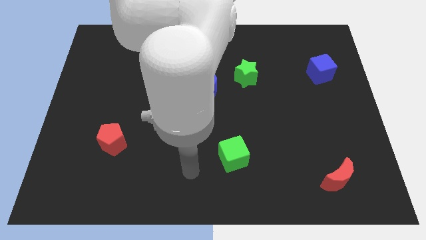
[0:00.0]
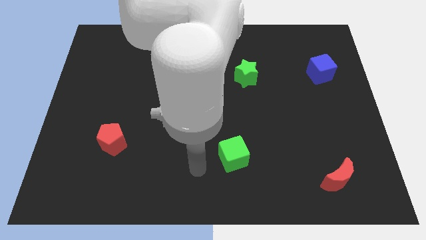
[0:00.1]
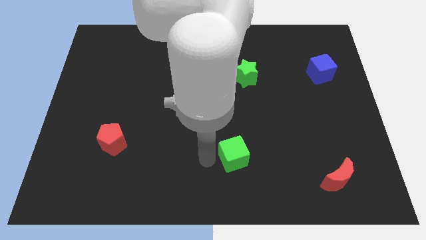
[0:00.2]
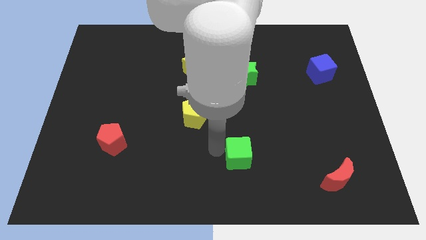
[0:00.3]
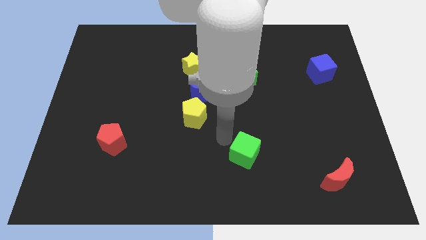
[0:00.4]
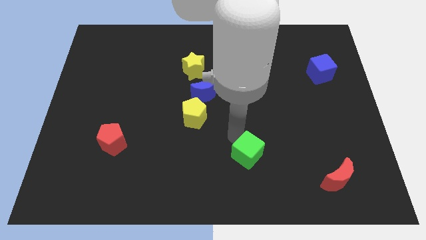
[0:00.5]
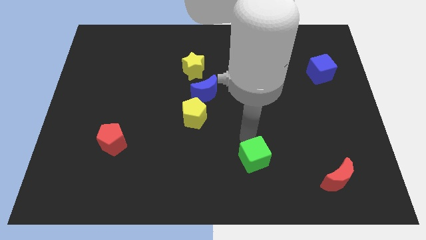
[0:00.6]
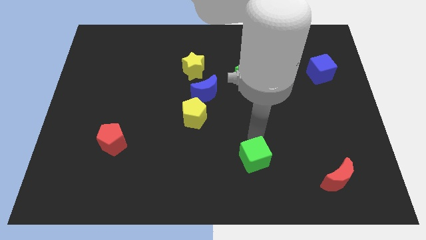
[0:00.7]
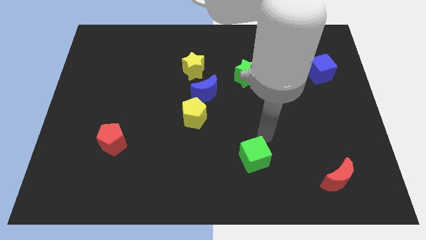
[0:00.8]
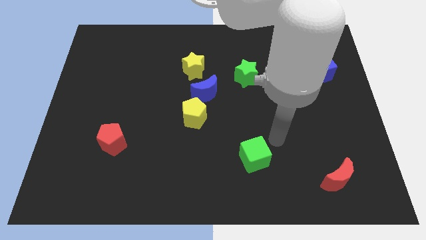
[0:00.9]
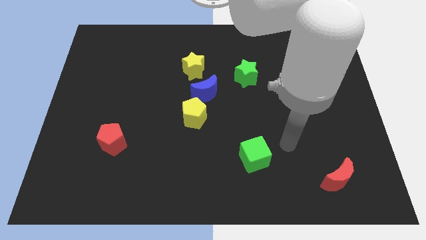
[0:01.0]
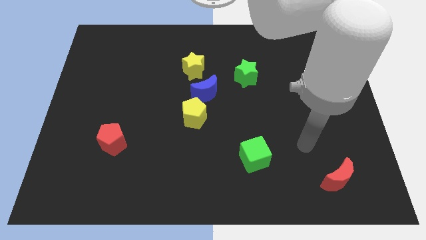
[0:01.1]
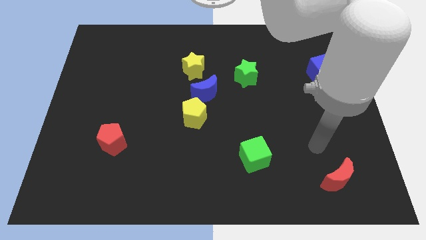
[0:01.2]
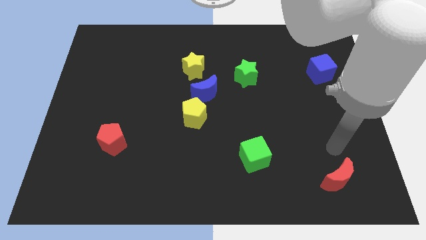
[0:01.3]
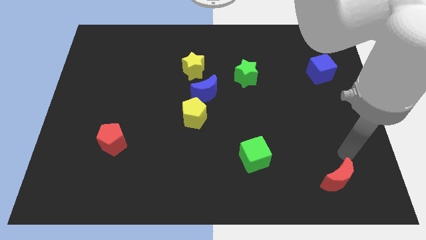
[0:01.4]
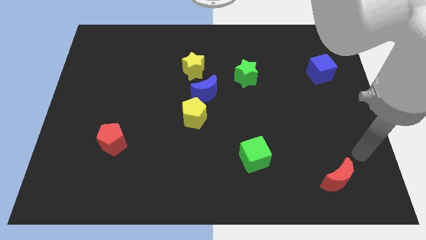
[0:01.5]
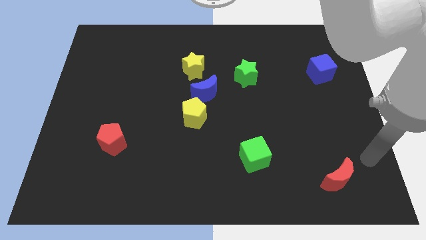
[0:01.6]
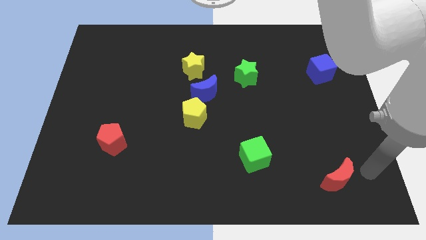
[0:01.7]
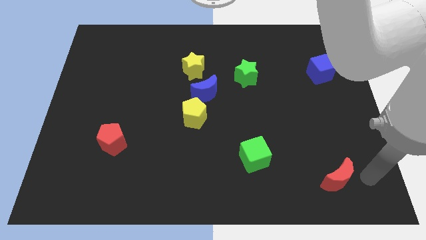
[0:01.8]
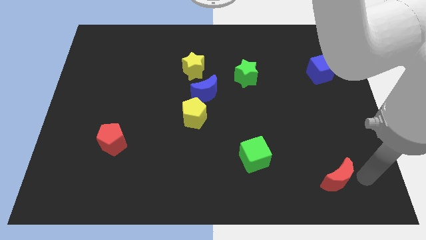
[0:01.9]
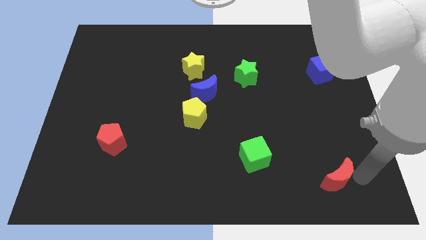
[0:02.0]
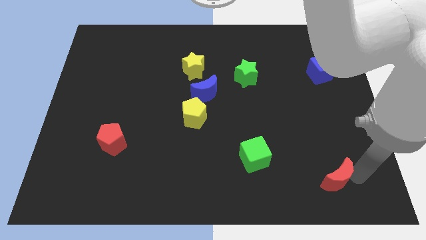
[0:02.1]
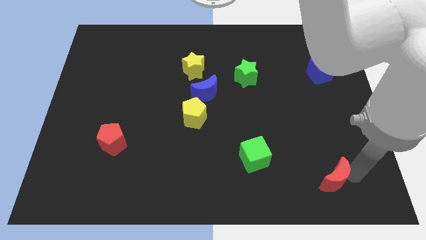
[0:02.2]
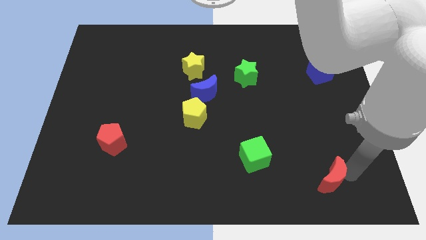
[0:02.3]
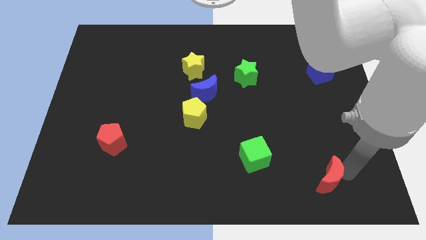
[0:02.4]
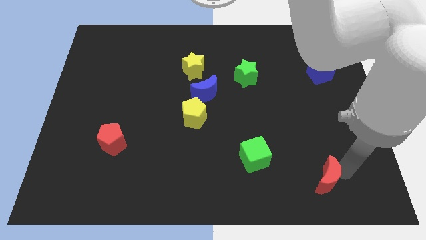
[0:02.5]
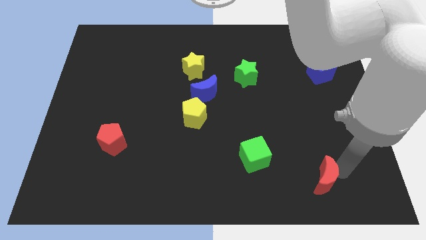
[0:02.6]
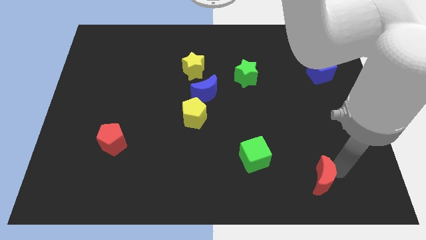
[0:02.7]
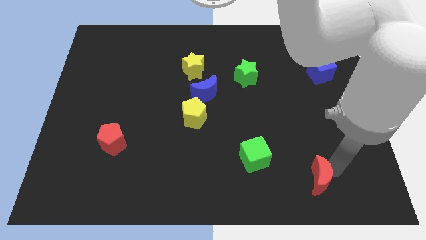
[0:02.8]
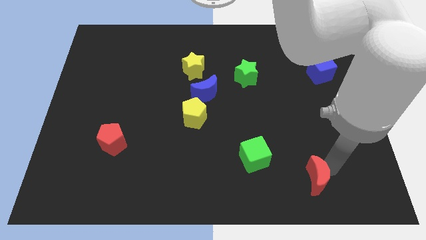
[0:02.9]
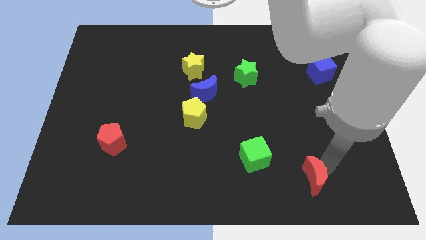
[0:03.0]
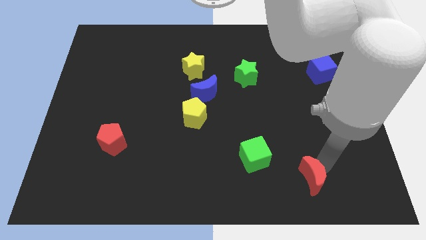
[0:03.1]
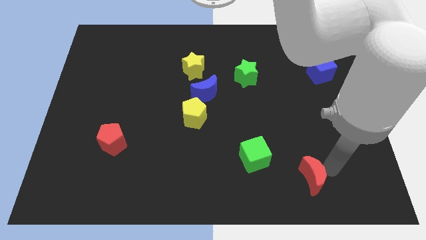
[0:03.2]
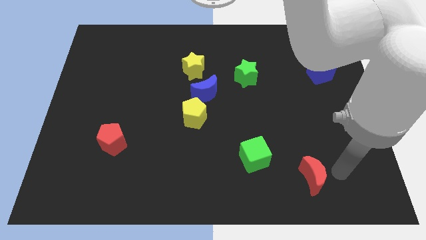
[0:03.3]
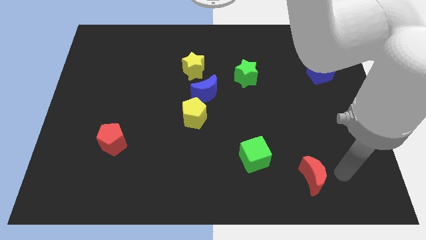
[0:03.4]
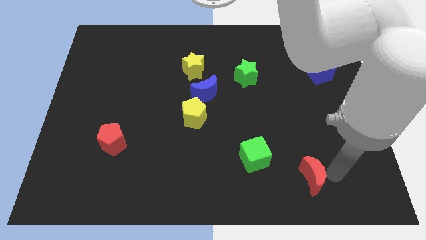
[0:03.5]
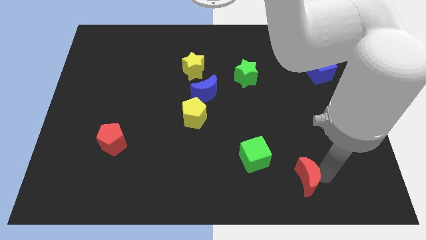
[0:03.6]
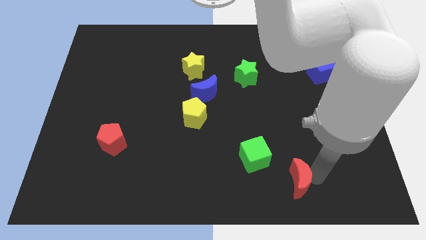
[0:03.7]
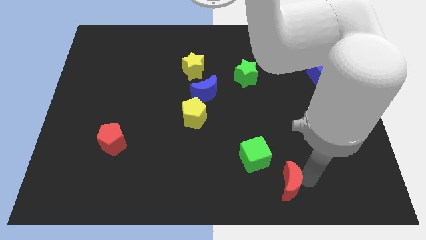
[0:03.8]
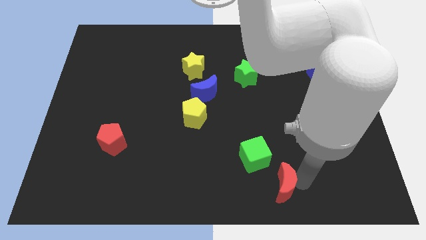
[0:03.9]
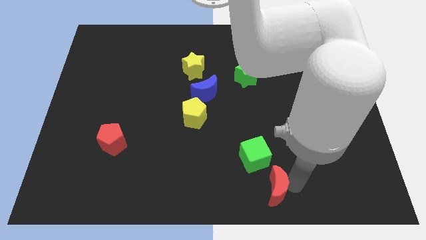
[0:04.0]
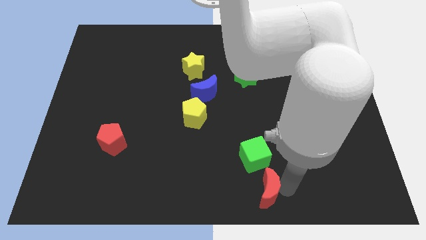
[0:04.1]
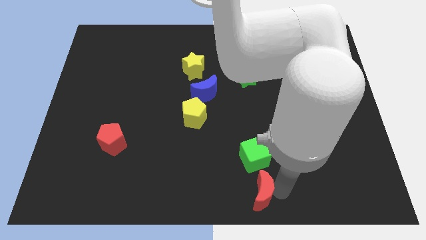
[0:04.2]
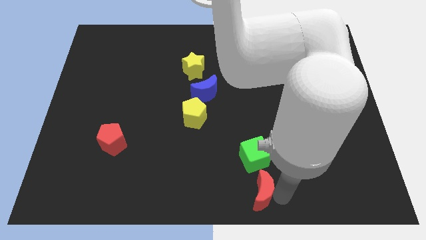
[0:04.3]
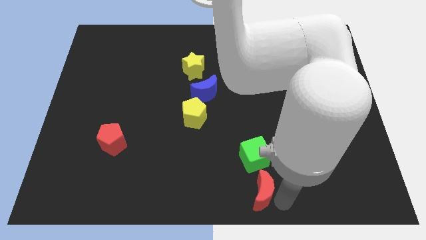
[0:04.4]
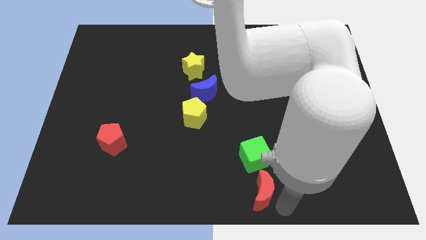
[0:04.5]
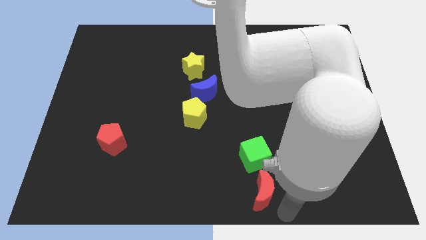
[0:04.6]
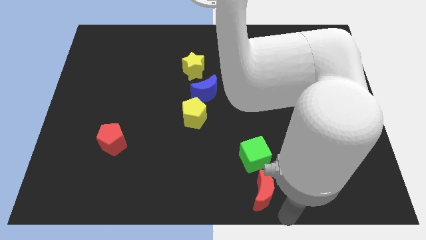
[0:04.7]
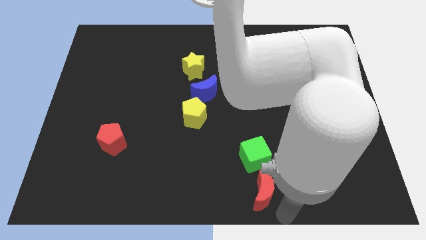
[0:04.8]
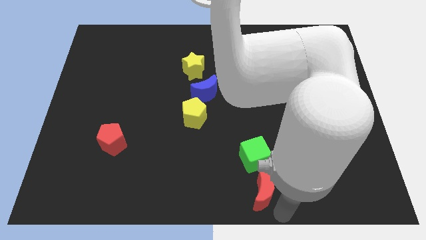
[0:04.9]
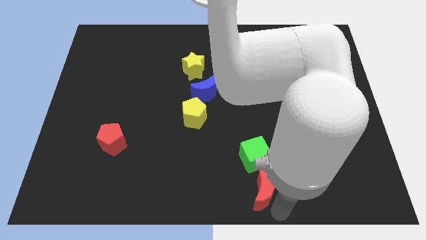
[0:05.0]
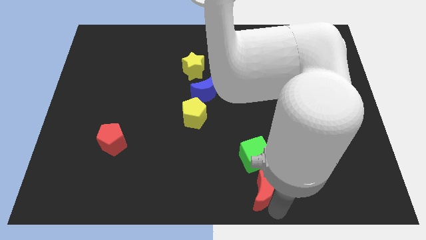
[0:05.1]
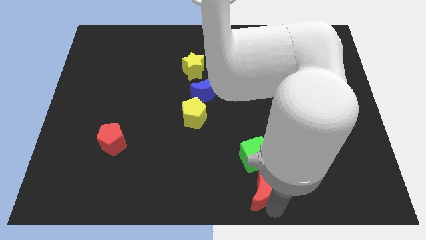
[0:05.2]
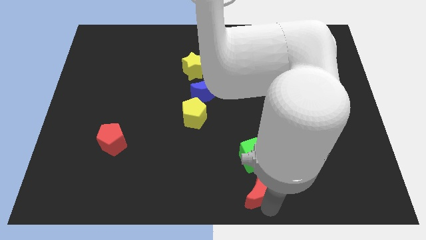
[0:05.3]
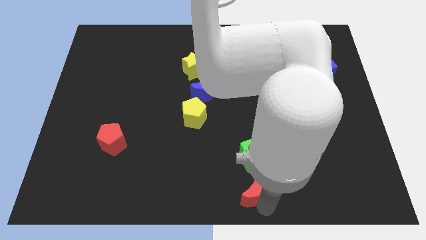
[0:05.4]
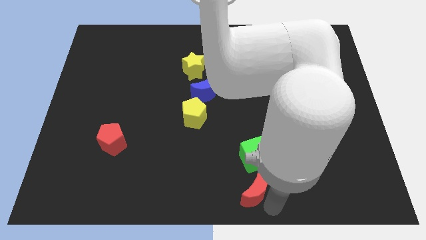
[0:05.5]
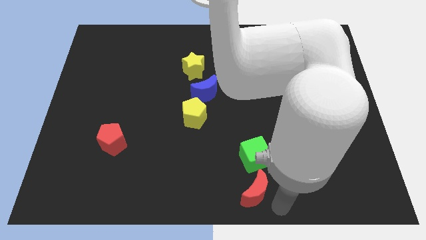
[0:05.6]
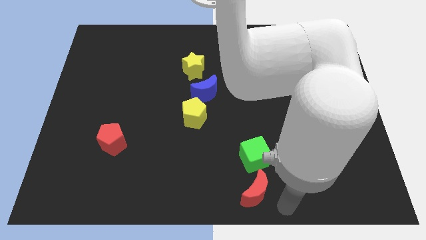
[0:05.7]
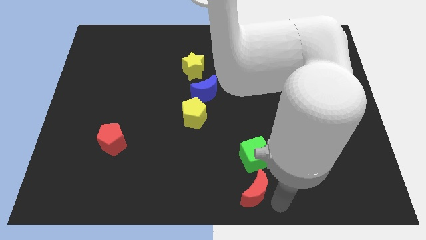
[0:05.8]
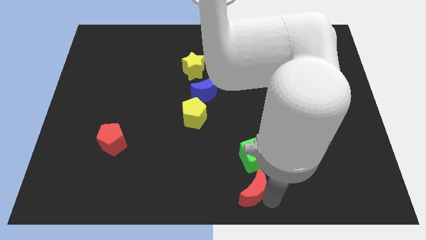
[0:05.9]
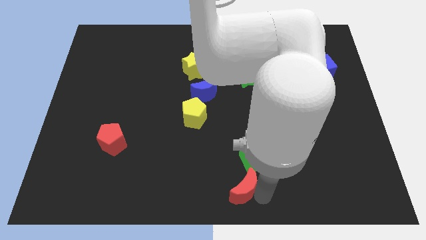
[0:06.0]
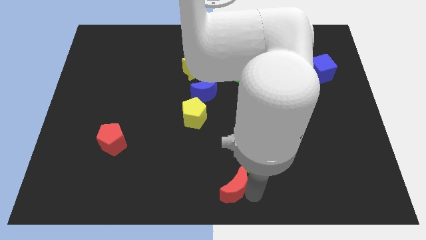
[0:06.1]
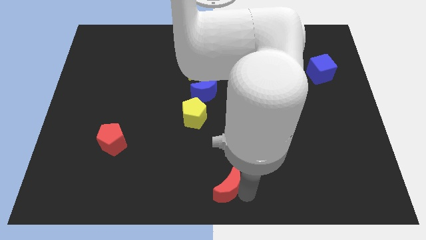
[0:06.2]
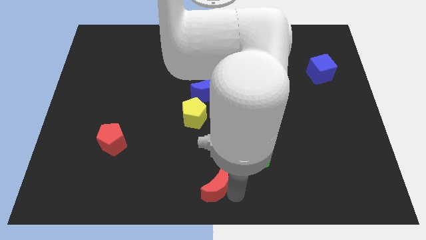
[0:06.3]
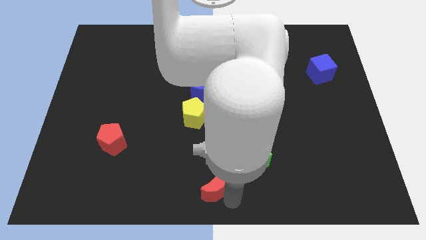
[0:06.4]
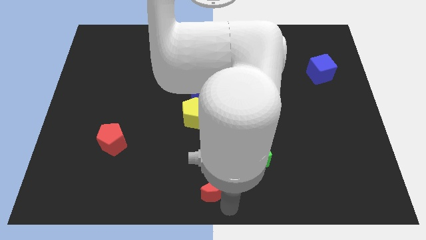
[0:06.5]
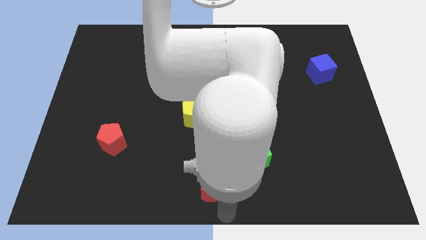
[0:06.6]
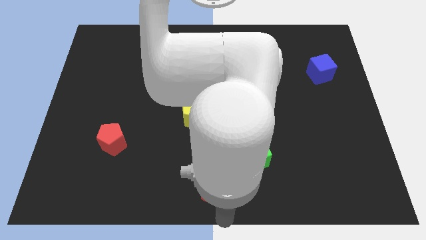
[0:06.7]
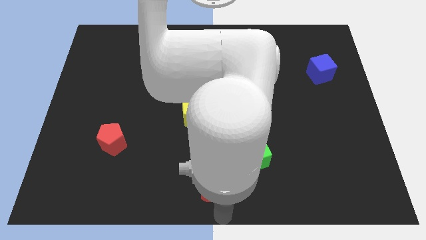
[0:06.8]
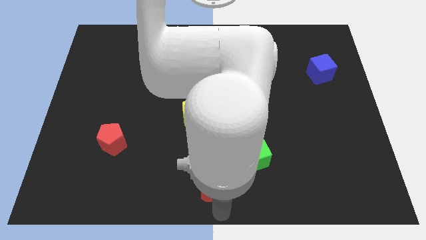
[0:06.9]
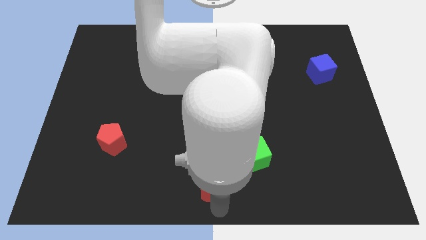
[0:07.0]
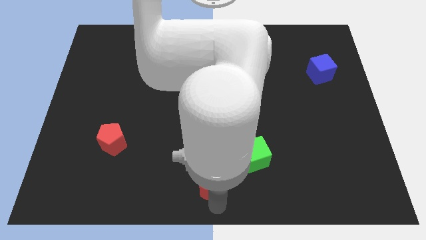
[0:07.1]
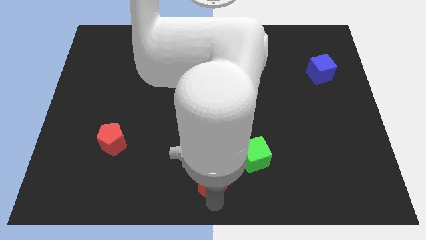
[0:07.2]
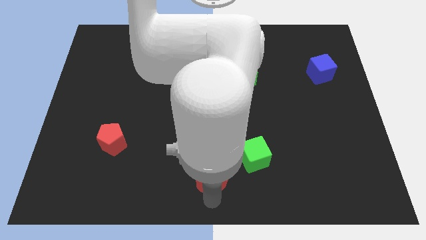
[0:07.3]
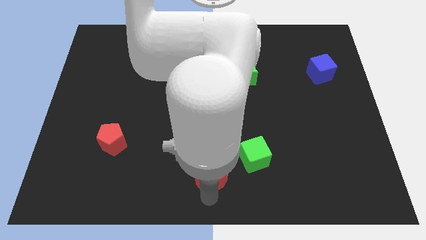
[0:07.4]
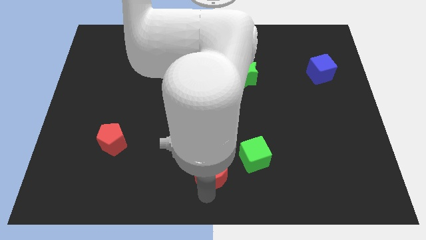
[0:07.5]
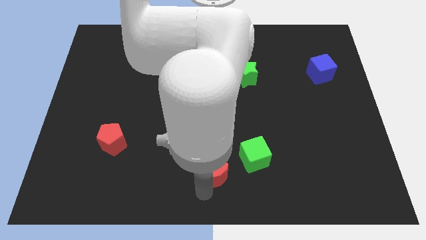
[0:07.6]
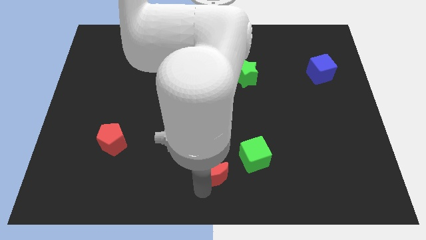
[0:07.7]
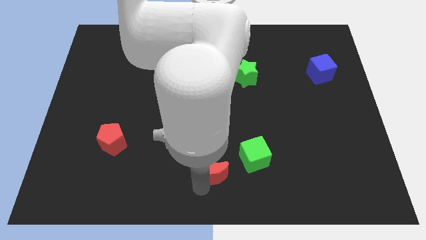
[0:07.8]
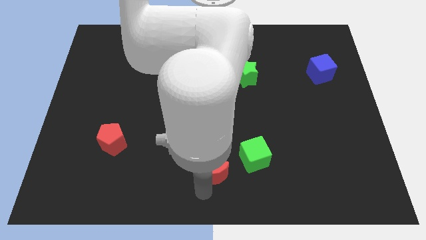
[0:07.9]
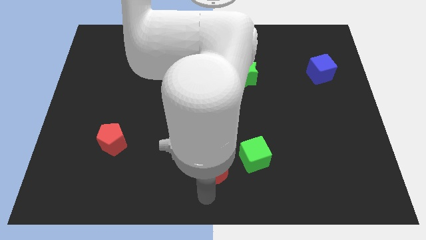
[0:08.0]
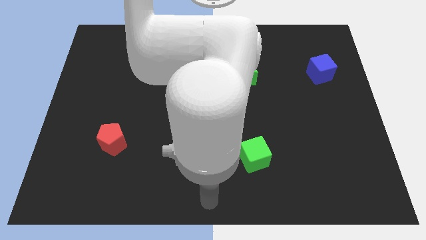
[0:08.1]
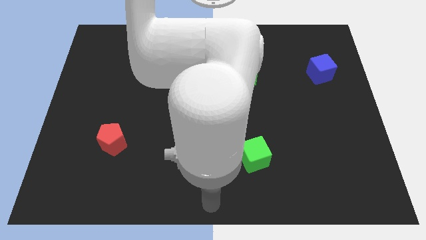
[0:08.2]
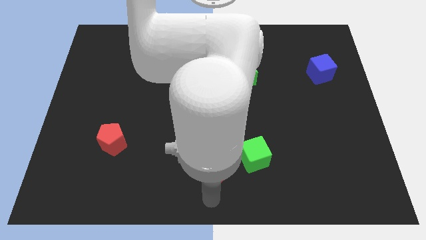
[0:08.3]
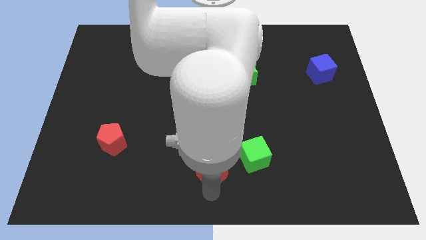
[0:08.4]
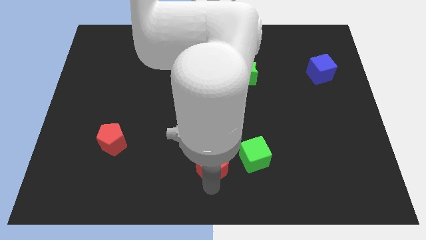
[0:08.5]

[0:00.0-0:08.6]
put the red moon to the bottom side of the yellow pentagon
